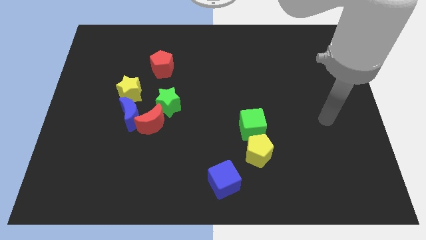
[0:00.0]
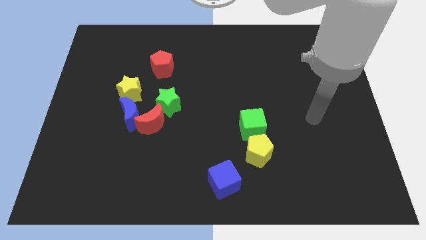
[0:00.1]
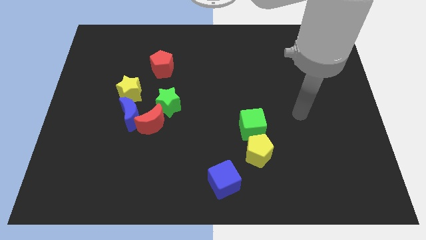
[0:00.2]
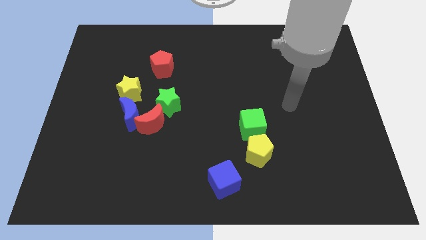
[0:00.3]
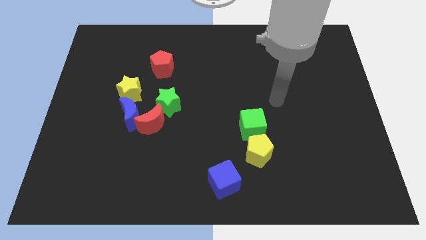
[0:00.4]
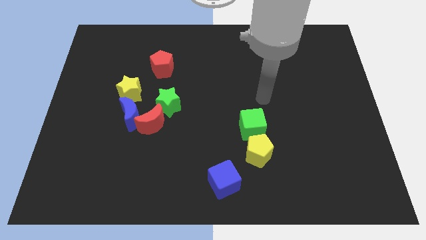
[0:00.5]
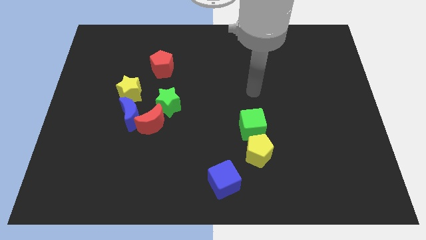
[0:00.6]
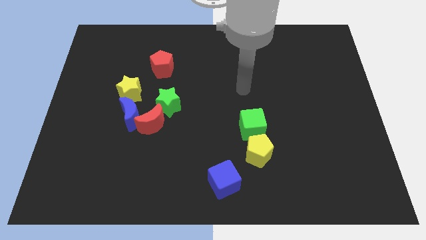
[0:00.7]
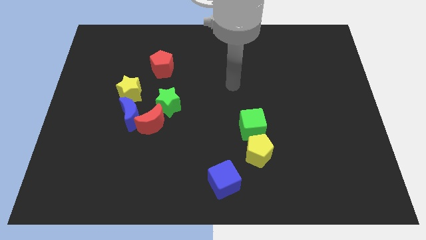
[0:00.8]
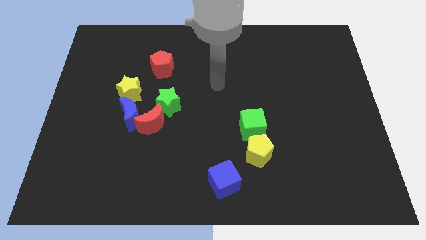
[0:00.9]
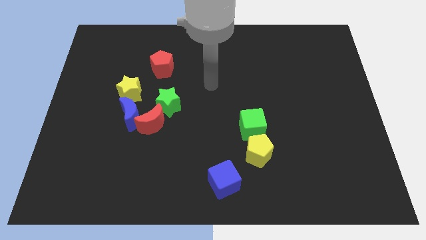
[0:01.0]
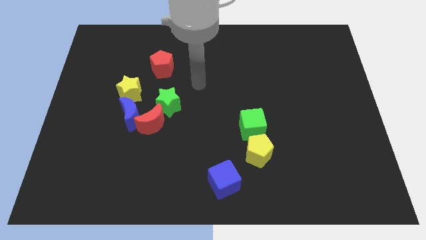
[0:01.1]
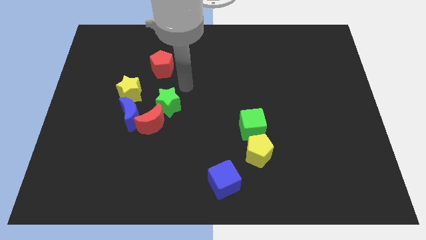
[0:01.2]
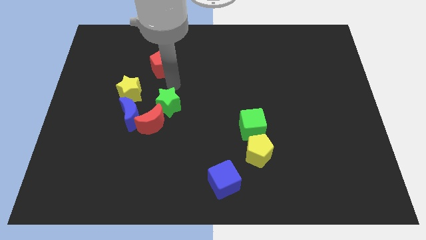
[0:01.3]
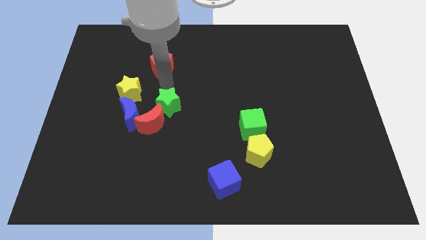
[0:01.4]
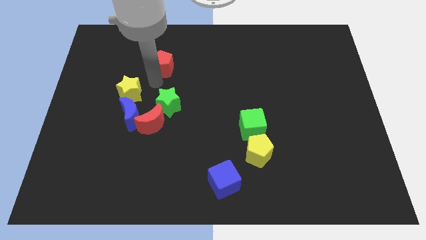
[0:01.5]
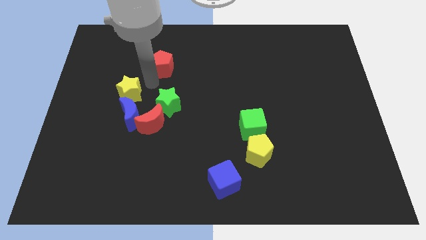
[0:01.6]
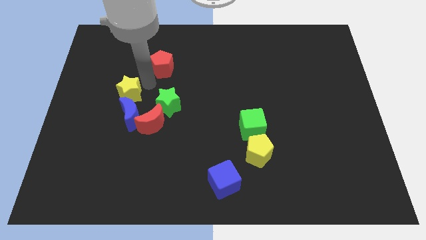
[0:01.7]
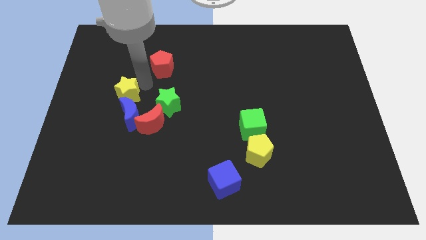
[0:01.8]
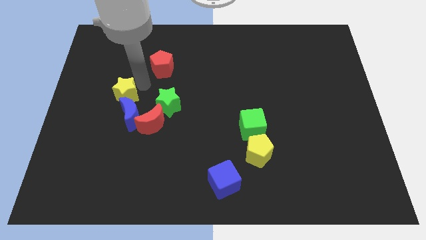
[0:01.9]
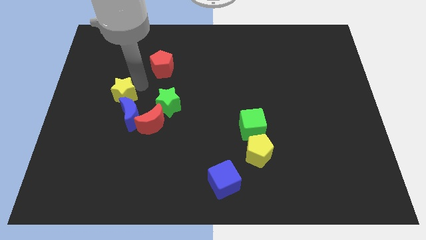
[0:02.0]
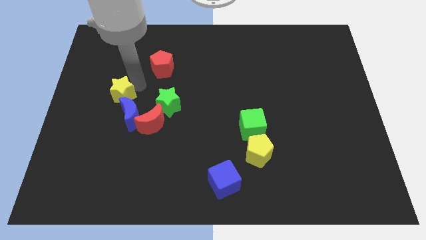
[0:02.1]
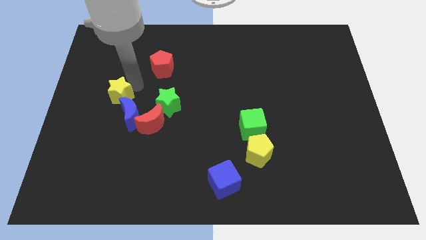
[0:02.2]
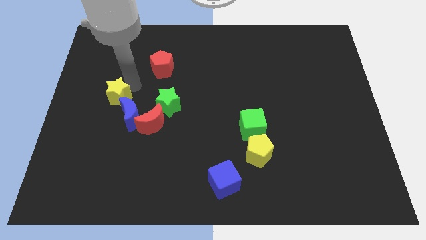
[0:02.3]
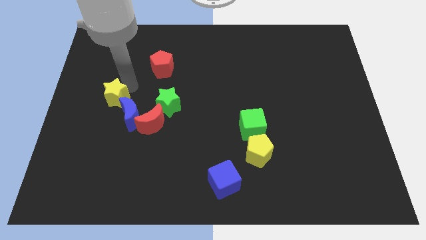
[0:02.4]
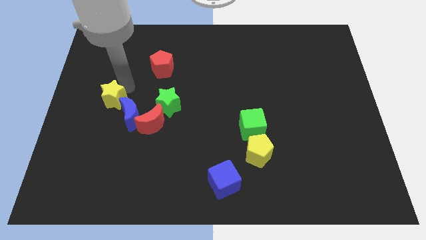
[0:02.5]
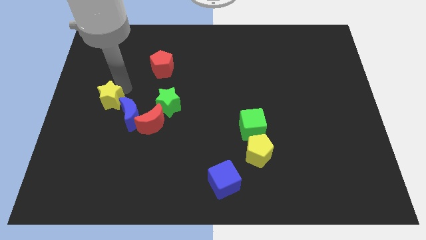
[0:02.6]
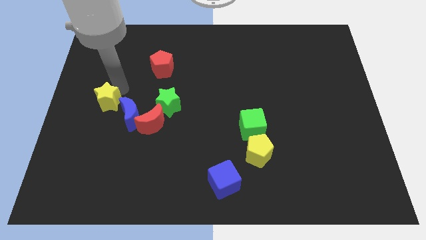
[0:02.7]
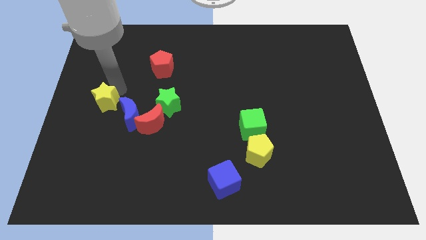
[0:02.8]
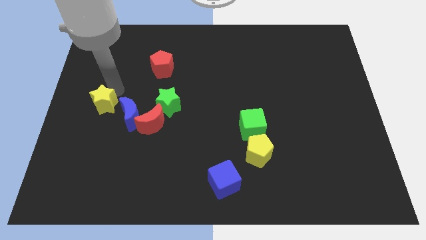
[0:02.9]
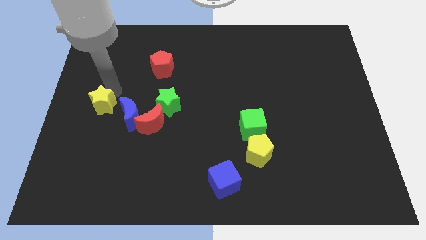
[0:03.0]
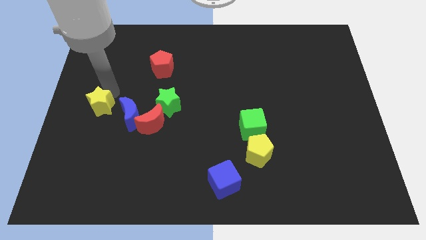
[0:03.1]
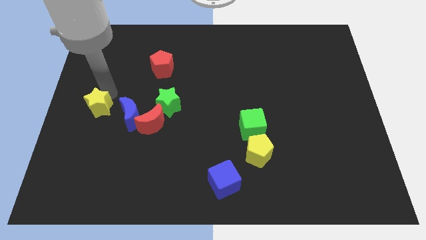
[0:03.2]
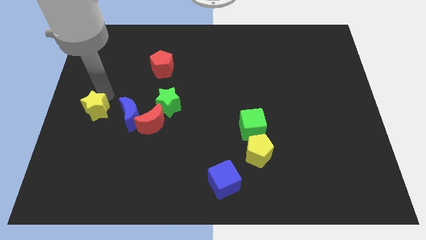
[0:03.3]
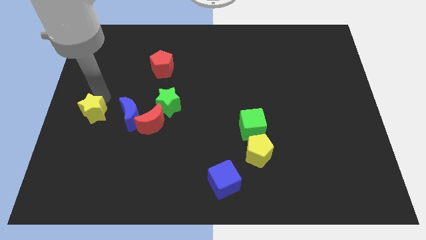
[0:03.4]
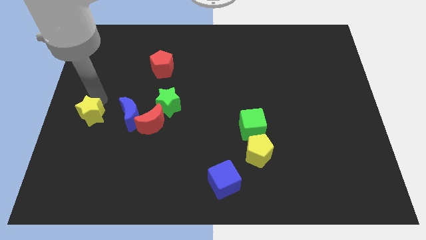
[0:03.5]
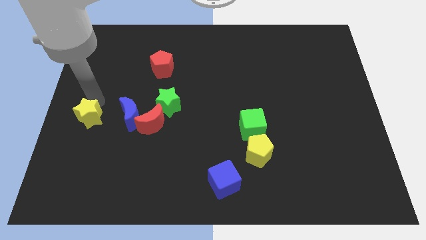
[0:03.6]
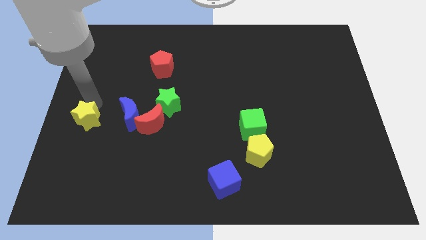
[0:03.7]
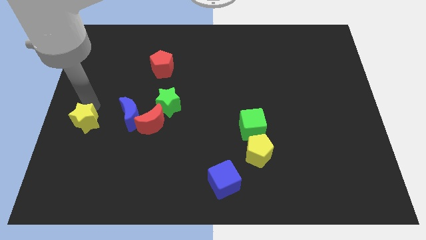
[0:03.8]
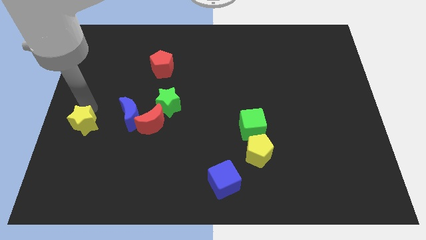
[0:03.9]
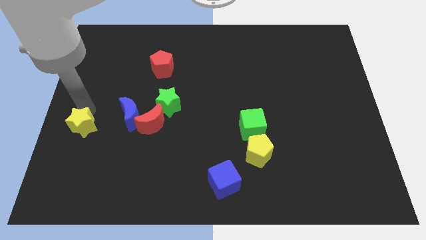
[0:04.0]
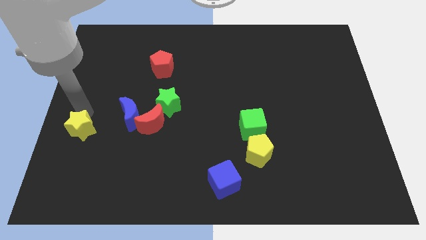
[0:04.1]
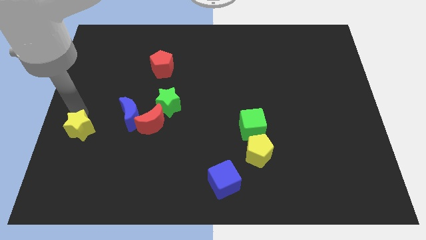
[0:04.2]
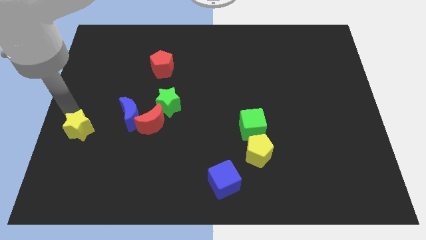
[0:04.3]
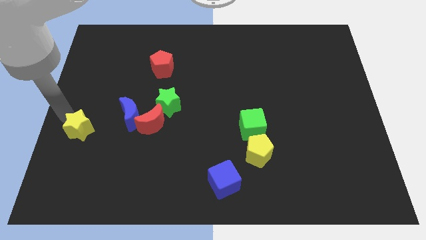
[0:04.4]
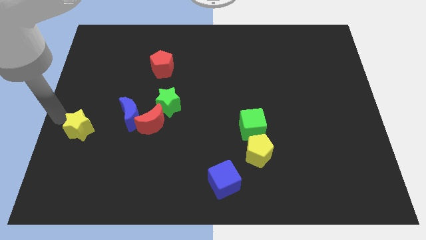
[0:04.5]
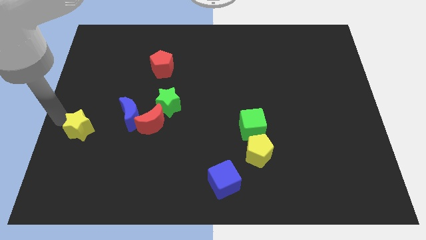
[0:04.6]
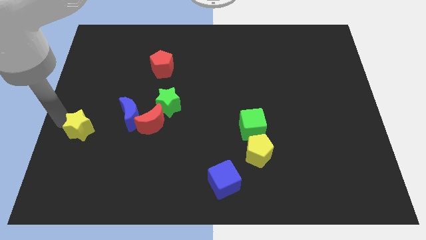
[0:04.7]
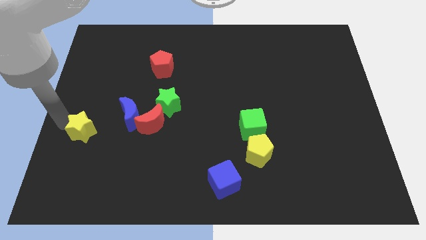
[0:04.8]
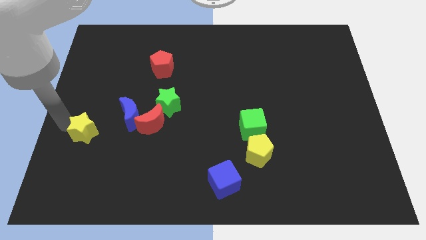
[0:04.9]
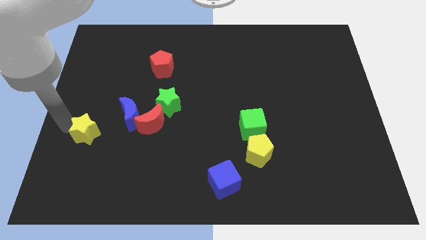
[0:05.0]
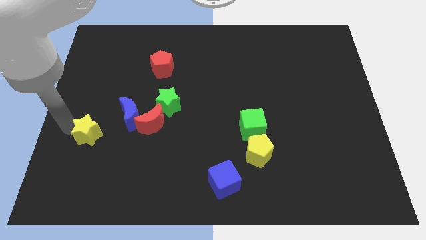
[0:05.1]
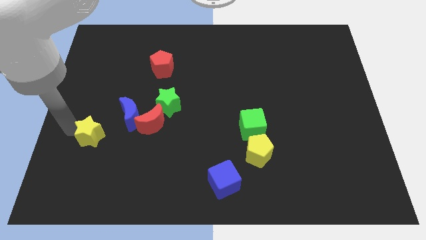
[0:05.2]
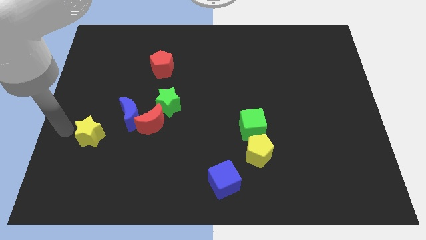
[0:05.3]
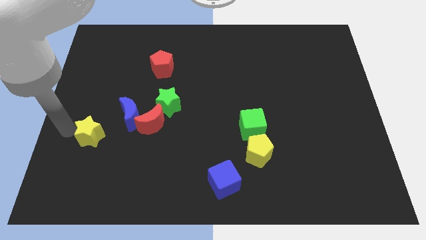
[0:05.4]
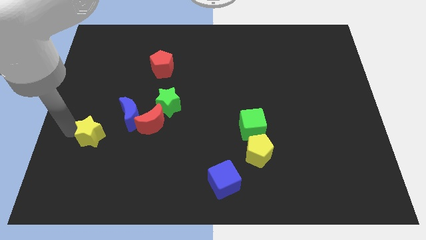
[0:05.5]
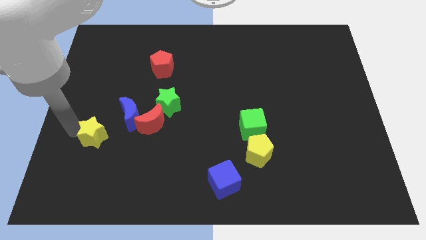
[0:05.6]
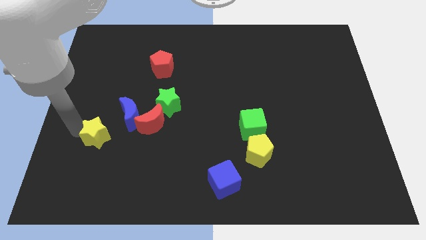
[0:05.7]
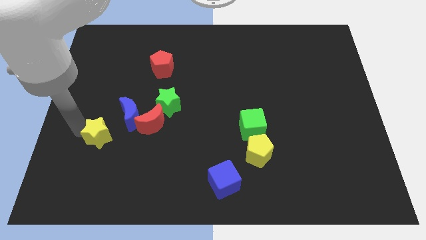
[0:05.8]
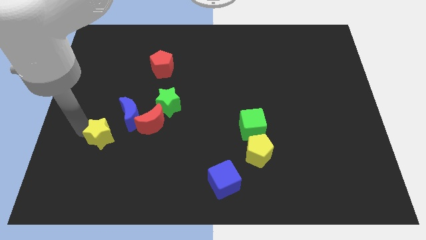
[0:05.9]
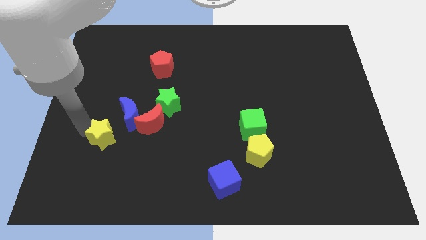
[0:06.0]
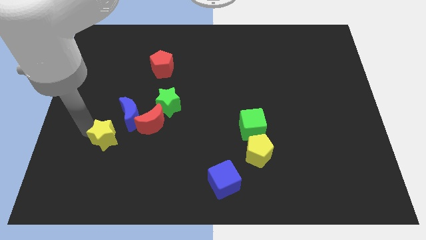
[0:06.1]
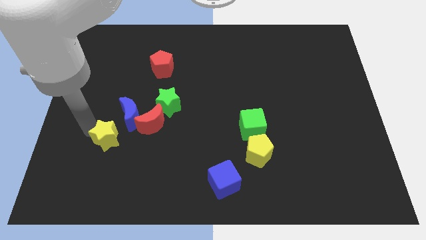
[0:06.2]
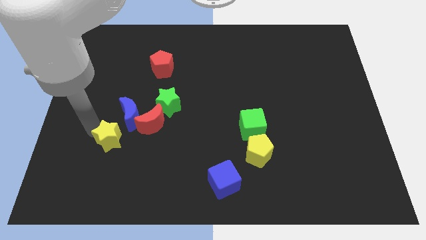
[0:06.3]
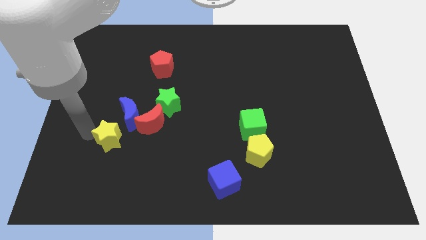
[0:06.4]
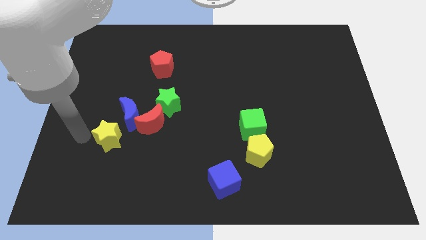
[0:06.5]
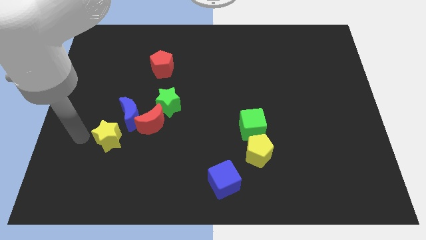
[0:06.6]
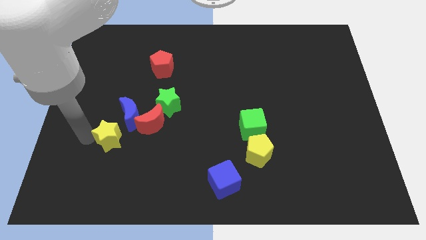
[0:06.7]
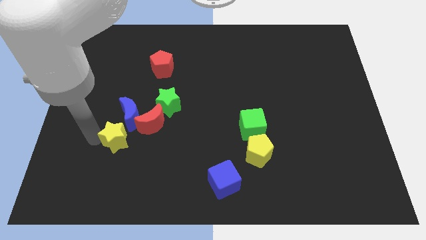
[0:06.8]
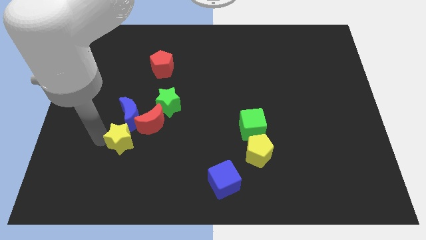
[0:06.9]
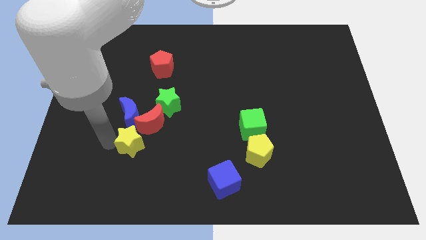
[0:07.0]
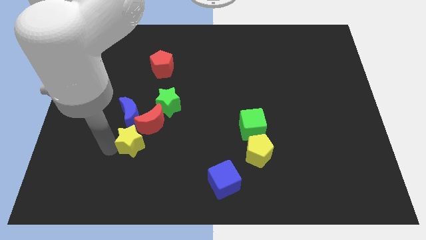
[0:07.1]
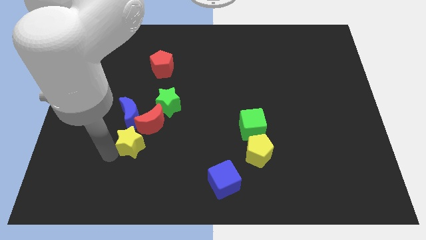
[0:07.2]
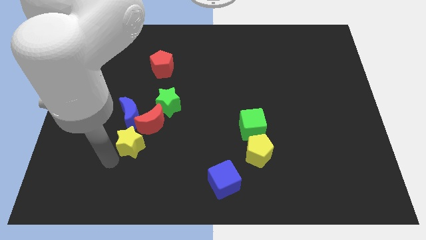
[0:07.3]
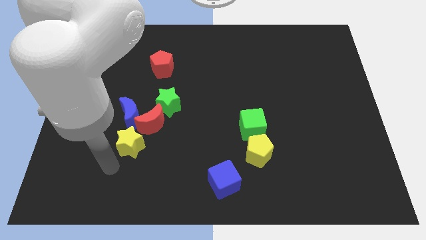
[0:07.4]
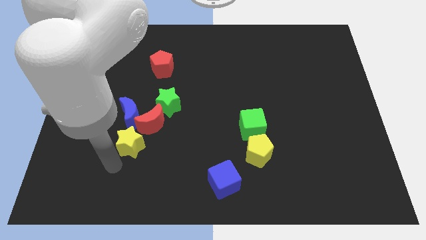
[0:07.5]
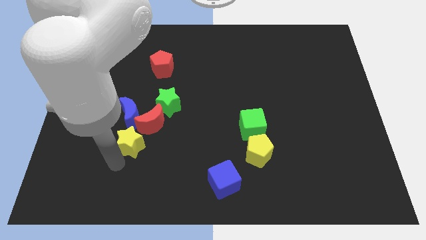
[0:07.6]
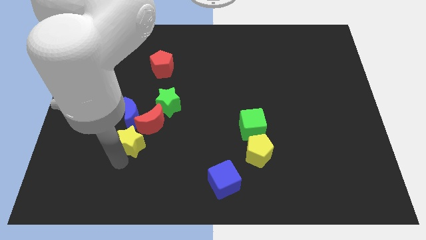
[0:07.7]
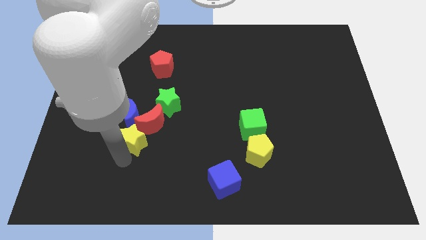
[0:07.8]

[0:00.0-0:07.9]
push the yellow star close to the red moon
